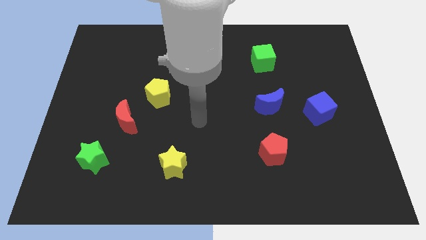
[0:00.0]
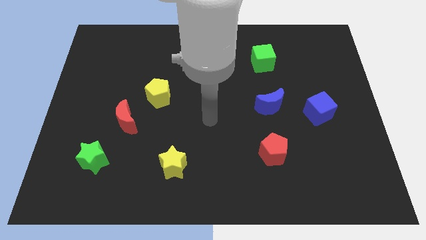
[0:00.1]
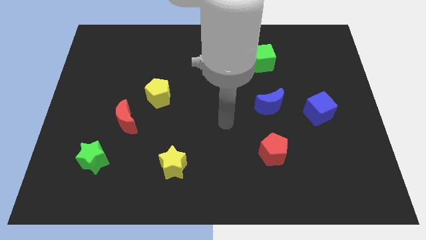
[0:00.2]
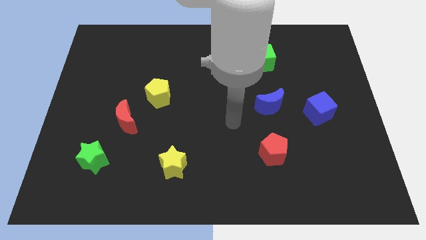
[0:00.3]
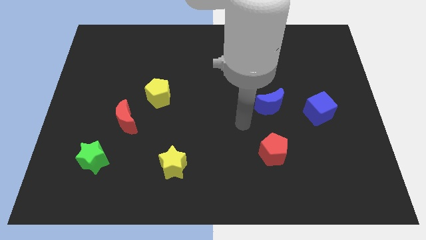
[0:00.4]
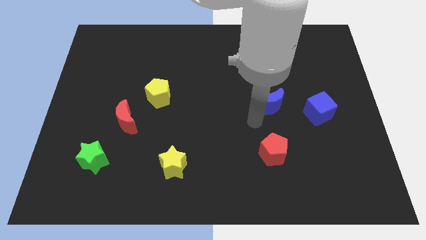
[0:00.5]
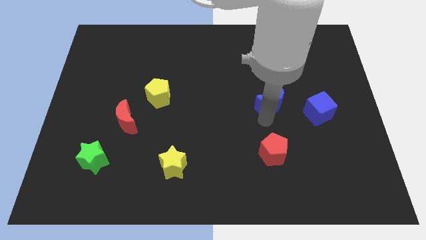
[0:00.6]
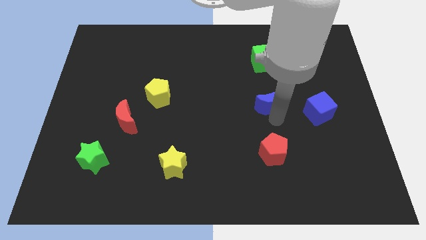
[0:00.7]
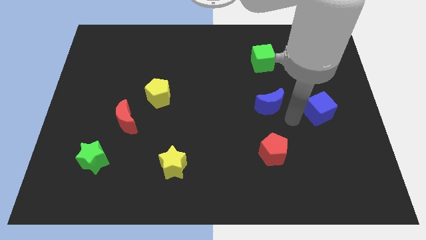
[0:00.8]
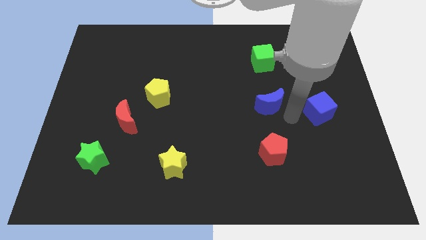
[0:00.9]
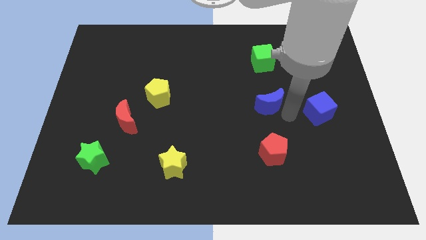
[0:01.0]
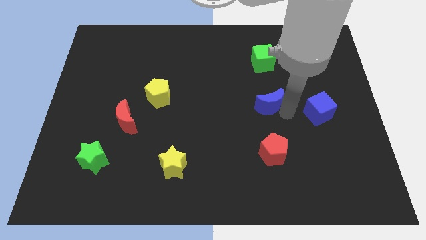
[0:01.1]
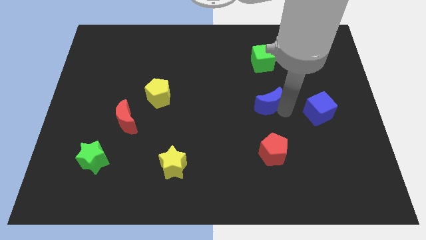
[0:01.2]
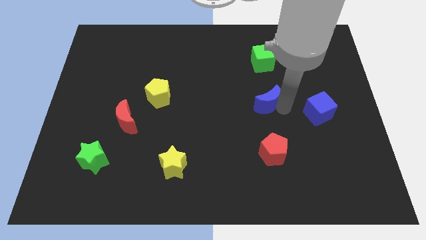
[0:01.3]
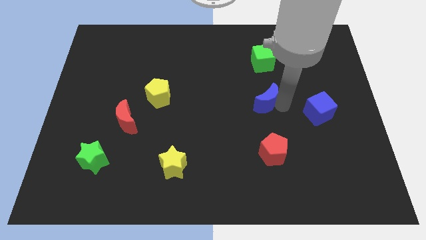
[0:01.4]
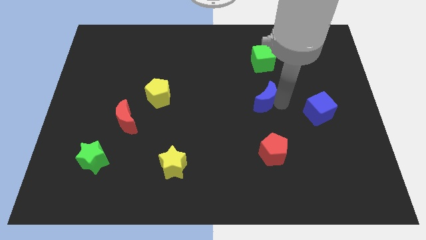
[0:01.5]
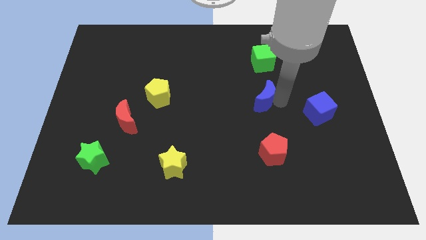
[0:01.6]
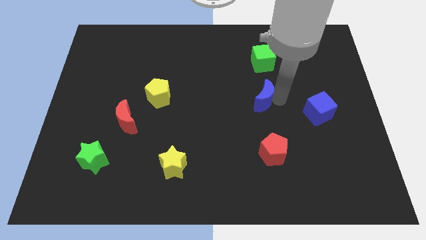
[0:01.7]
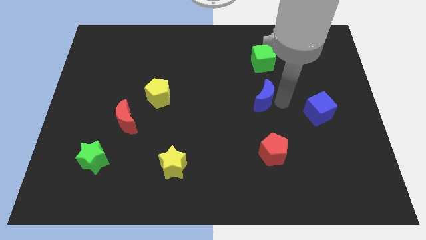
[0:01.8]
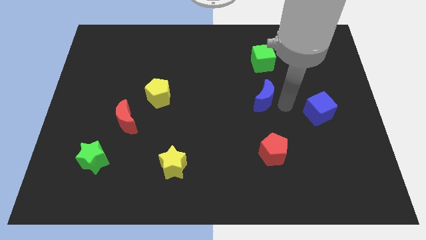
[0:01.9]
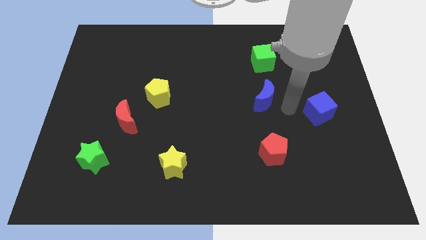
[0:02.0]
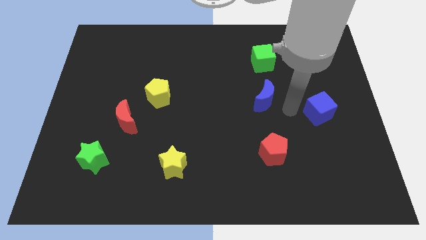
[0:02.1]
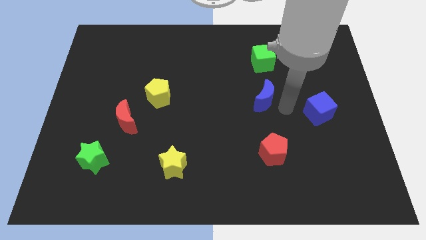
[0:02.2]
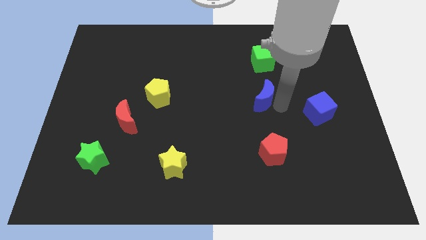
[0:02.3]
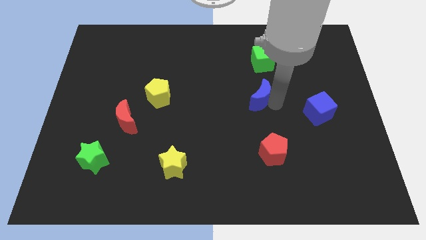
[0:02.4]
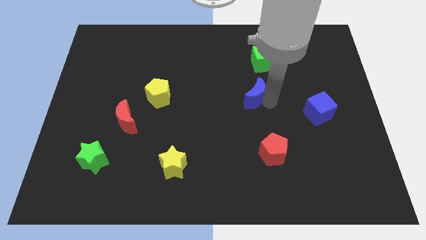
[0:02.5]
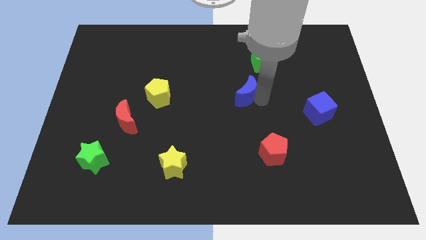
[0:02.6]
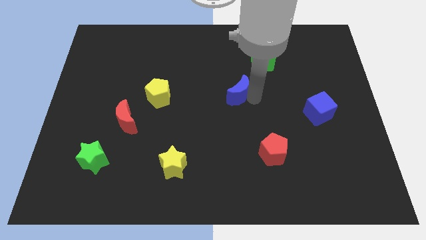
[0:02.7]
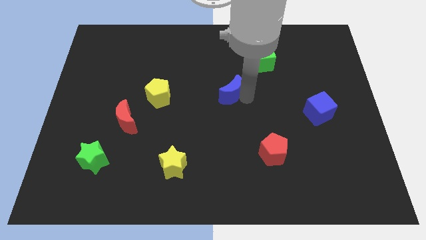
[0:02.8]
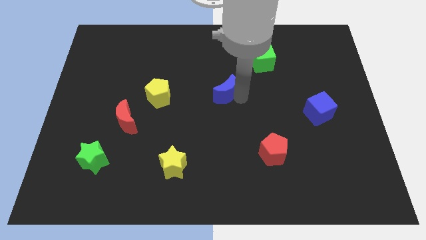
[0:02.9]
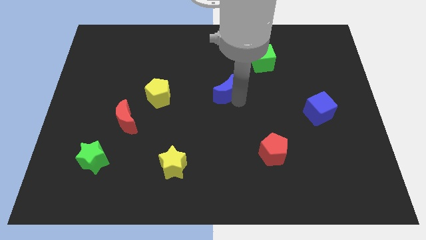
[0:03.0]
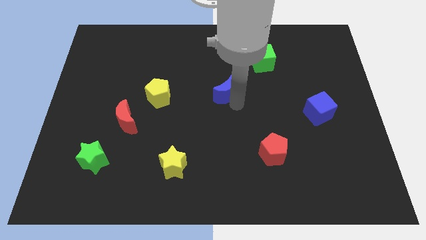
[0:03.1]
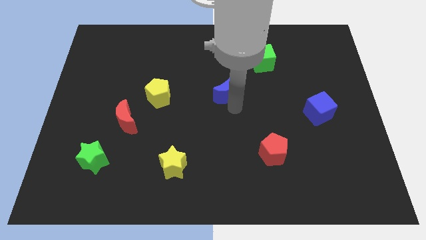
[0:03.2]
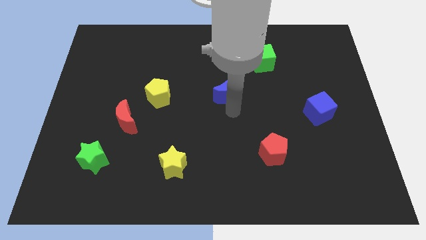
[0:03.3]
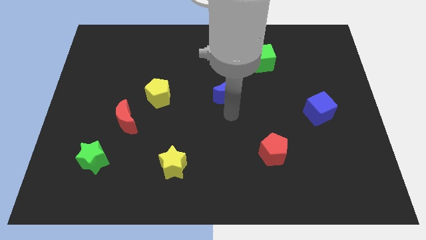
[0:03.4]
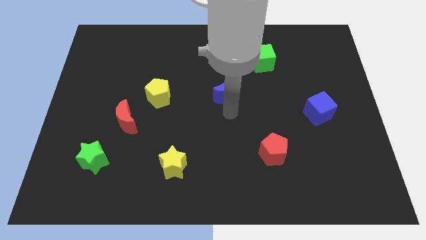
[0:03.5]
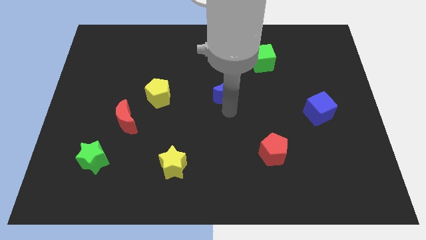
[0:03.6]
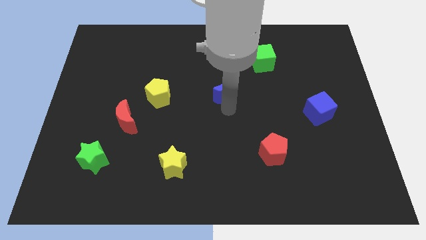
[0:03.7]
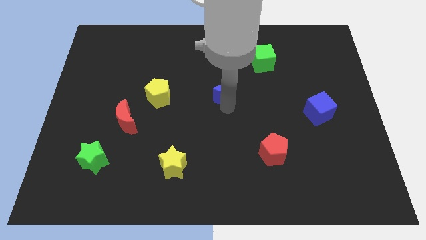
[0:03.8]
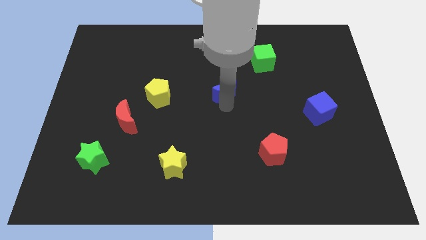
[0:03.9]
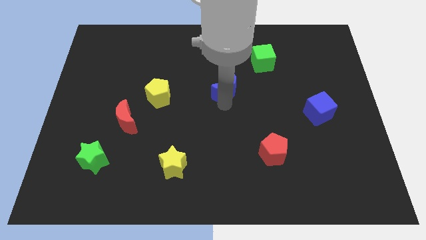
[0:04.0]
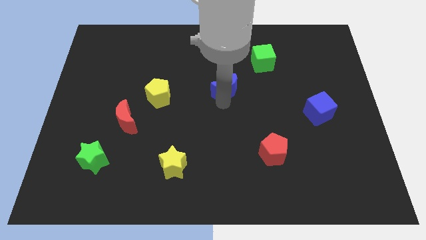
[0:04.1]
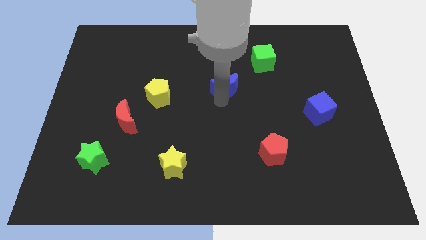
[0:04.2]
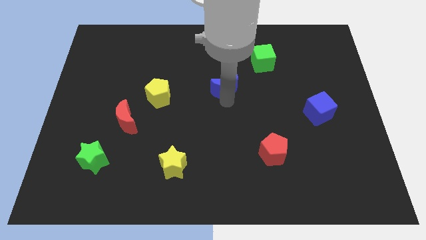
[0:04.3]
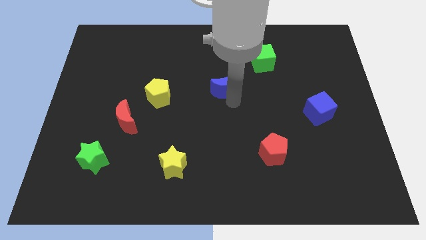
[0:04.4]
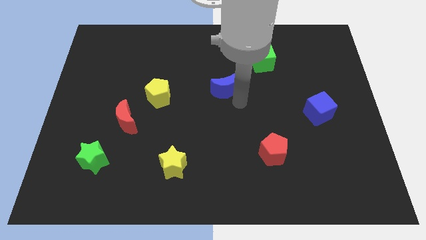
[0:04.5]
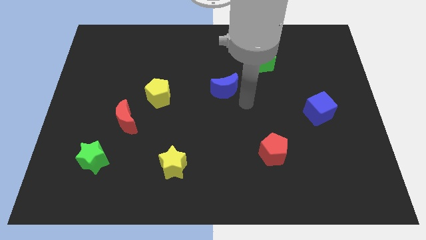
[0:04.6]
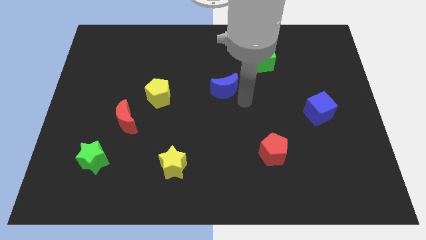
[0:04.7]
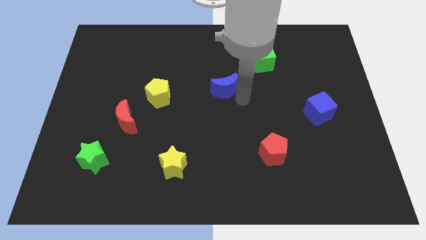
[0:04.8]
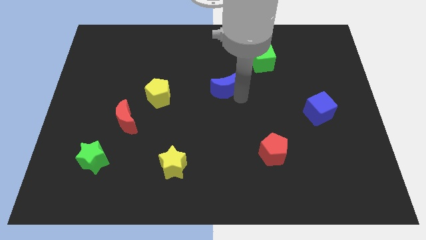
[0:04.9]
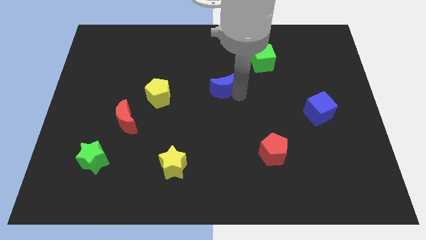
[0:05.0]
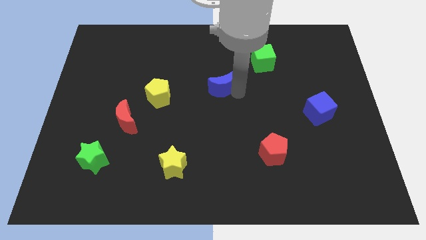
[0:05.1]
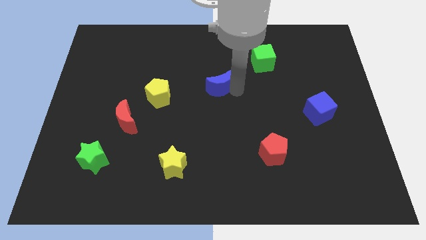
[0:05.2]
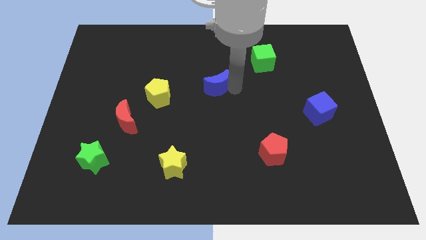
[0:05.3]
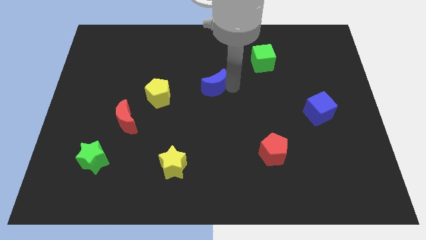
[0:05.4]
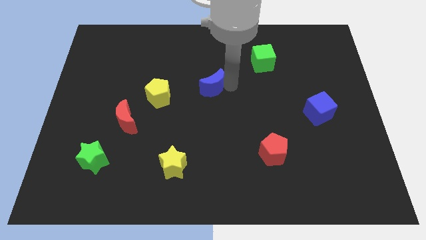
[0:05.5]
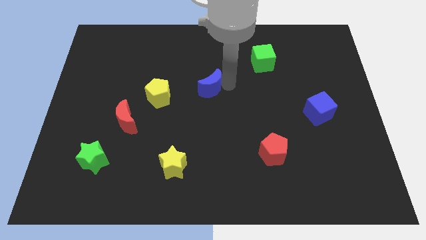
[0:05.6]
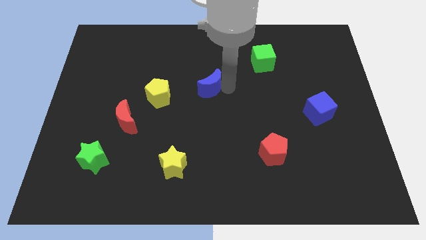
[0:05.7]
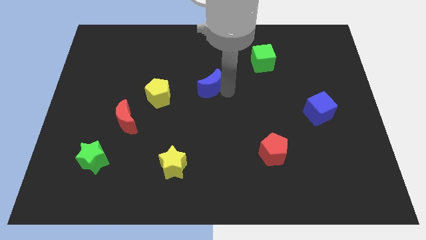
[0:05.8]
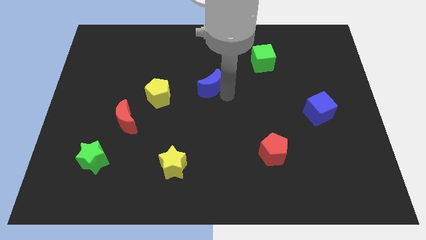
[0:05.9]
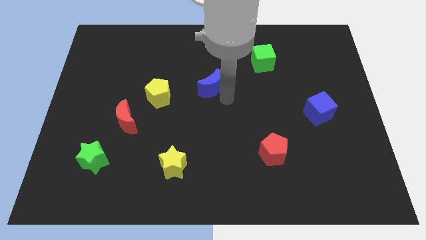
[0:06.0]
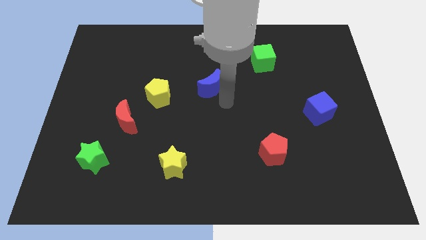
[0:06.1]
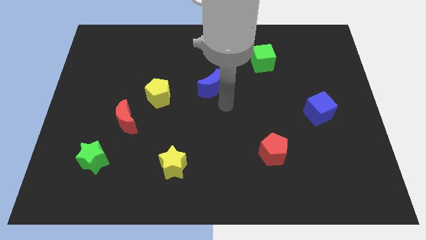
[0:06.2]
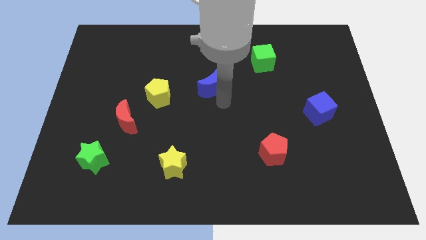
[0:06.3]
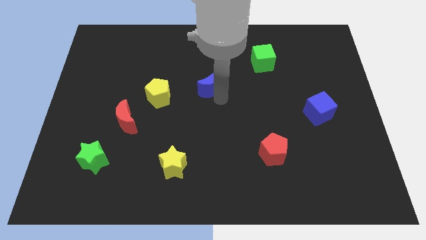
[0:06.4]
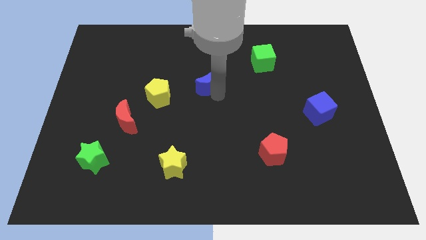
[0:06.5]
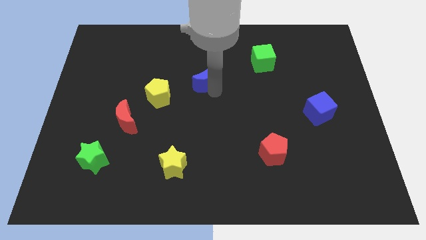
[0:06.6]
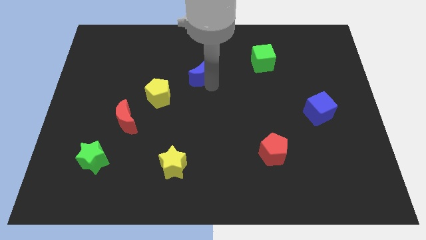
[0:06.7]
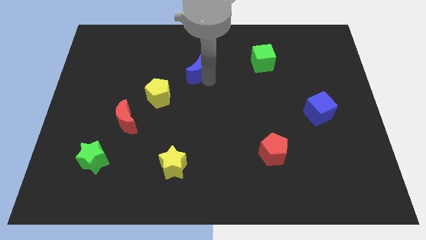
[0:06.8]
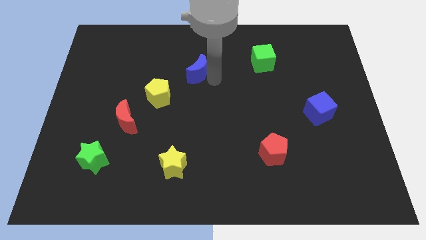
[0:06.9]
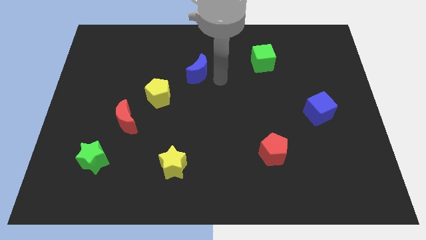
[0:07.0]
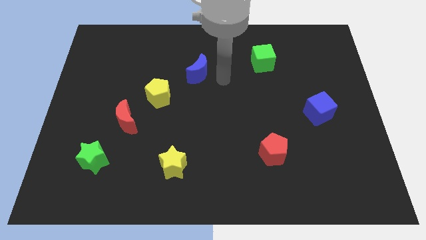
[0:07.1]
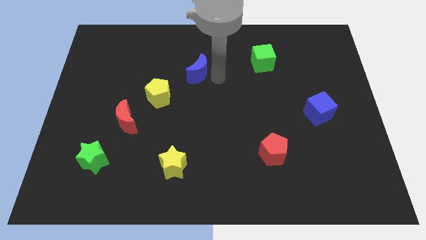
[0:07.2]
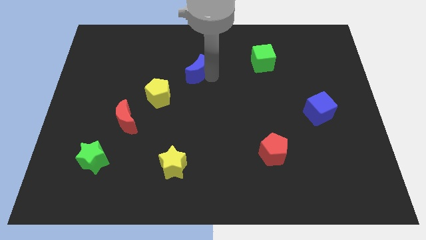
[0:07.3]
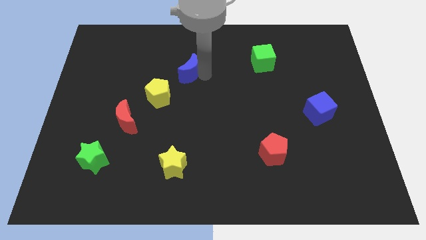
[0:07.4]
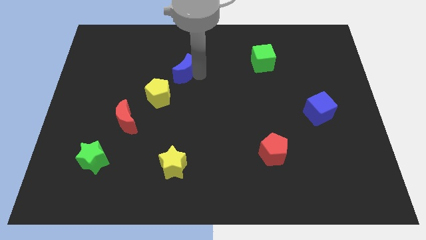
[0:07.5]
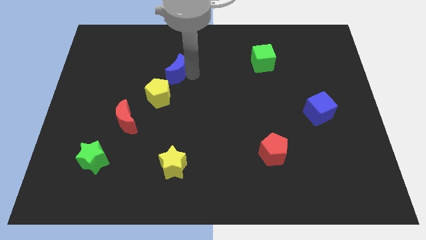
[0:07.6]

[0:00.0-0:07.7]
put the blue moon above the yellow pentagon
